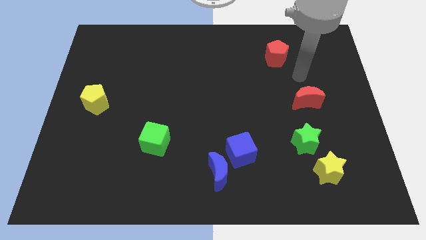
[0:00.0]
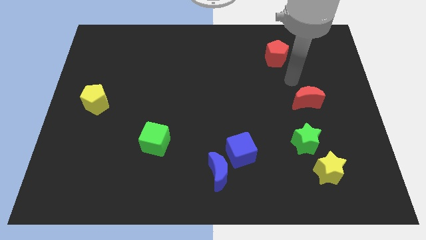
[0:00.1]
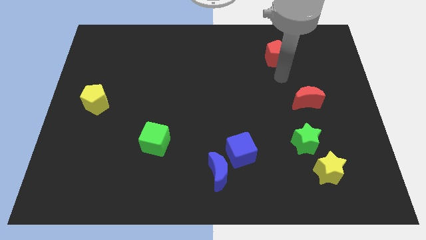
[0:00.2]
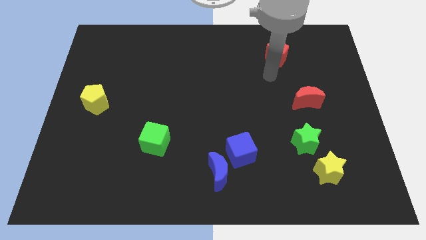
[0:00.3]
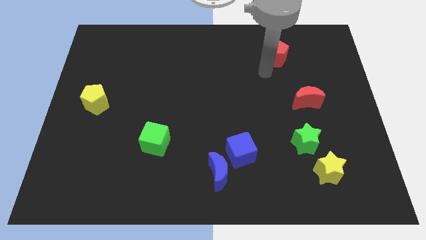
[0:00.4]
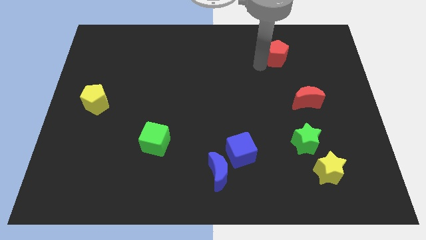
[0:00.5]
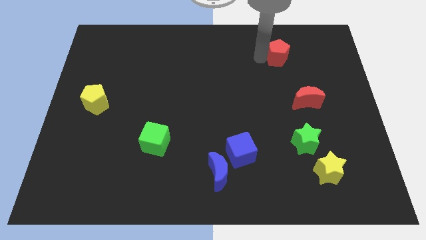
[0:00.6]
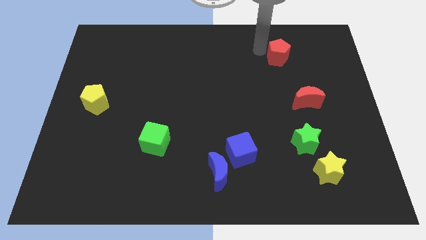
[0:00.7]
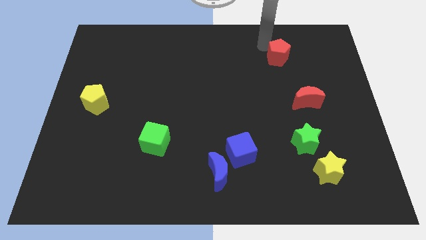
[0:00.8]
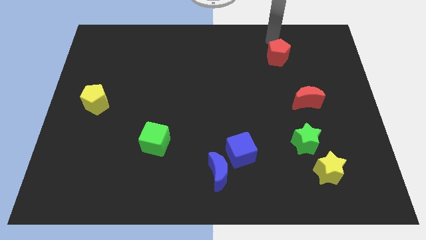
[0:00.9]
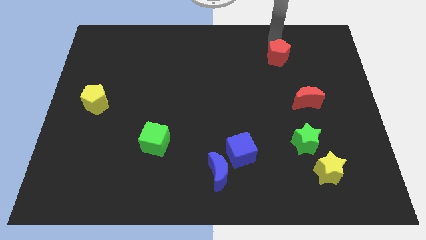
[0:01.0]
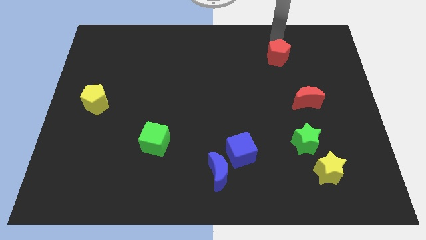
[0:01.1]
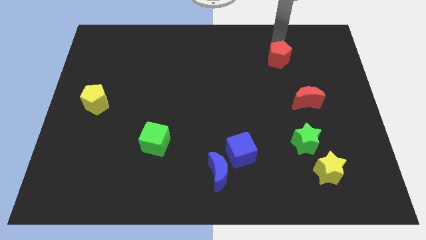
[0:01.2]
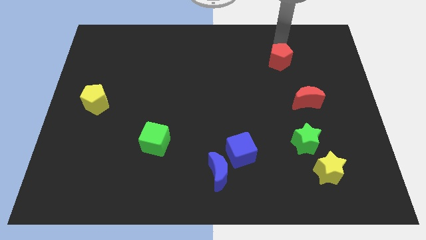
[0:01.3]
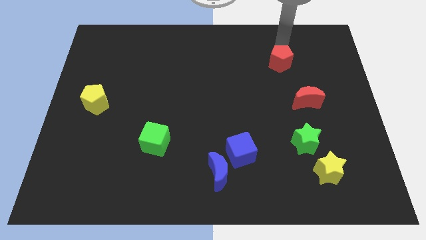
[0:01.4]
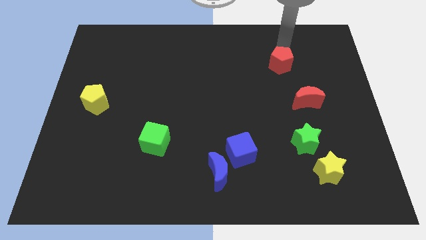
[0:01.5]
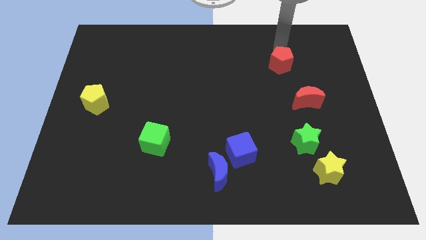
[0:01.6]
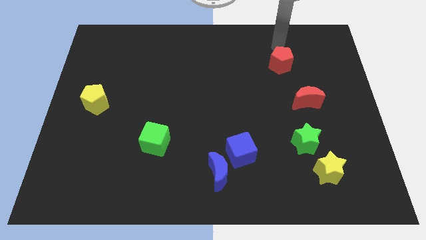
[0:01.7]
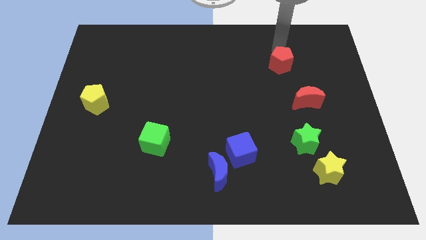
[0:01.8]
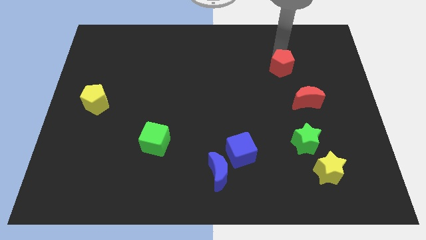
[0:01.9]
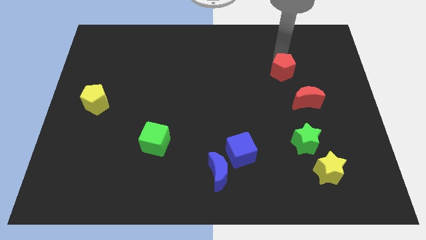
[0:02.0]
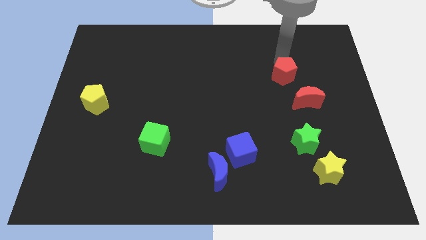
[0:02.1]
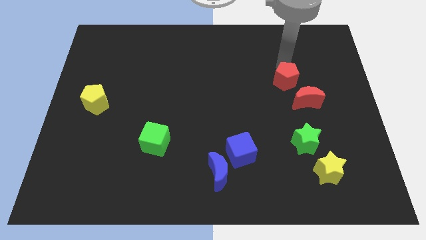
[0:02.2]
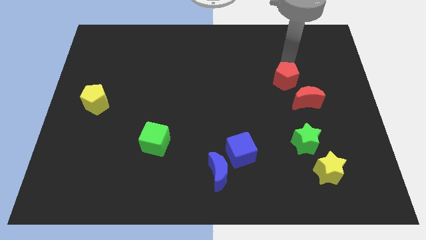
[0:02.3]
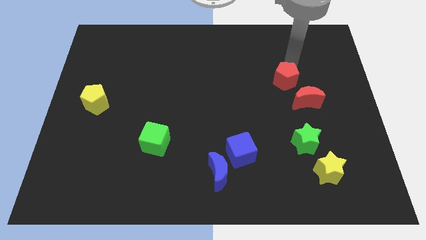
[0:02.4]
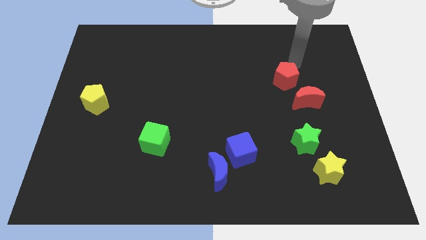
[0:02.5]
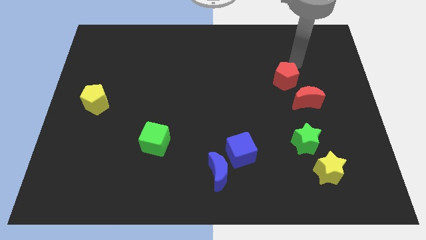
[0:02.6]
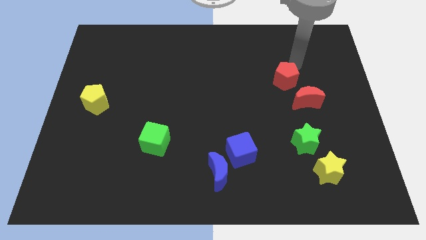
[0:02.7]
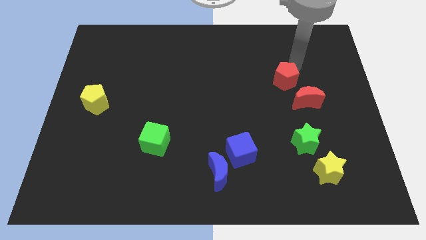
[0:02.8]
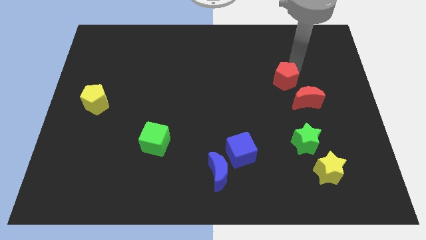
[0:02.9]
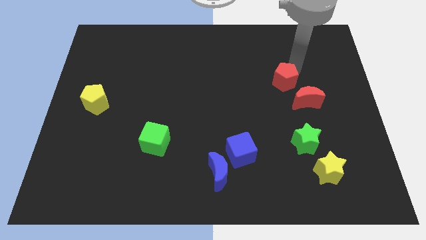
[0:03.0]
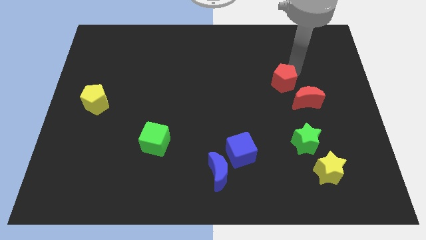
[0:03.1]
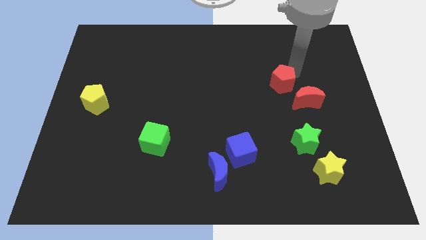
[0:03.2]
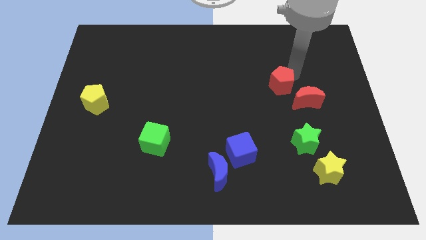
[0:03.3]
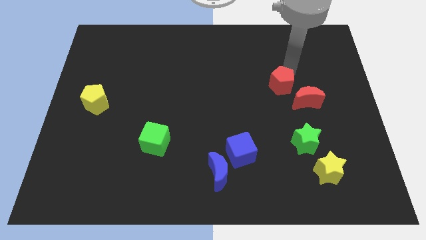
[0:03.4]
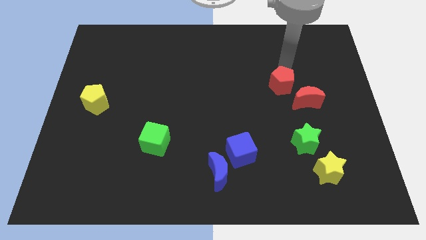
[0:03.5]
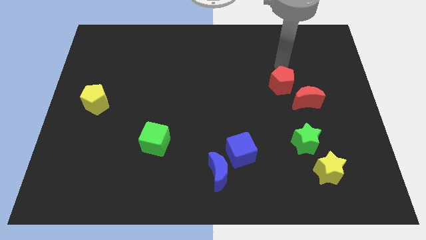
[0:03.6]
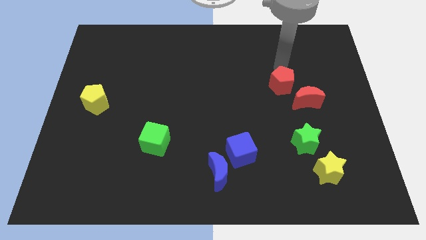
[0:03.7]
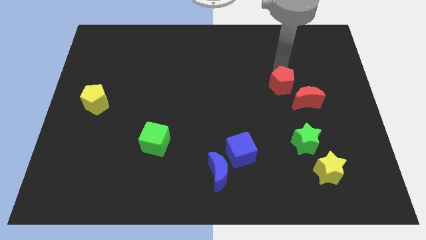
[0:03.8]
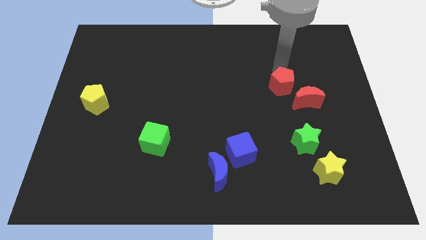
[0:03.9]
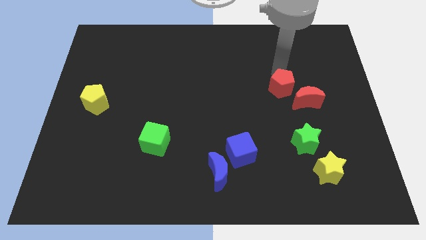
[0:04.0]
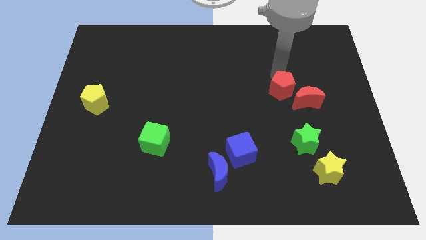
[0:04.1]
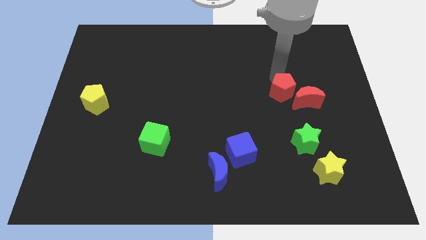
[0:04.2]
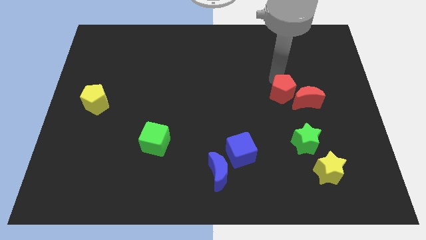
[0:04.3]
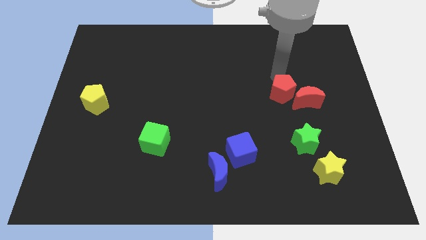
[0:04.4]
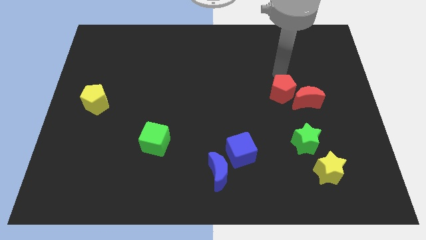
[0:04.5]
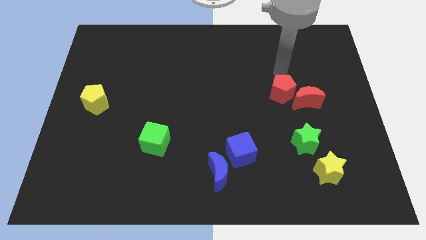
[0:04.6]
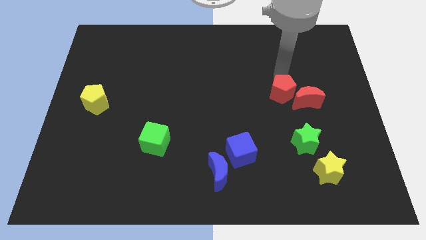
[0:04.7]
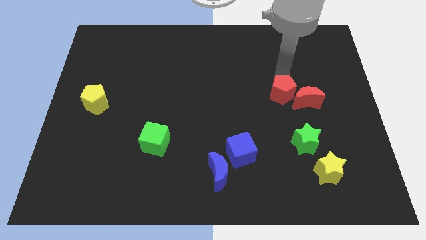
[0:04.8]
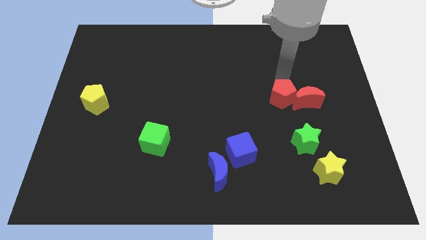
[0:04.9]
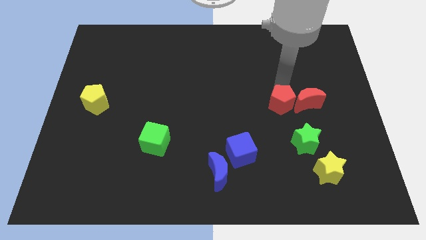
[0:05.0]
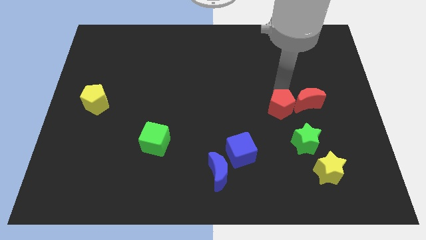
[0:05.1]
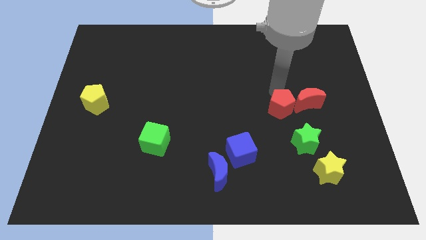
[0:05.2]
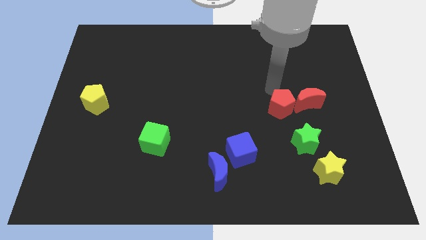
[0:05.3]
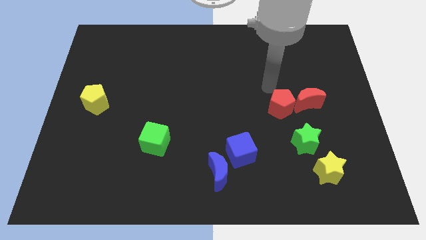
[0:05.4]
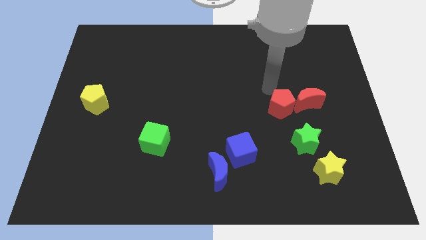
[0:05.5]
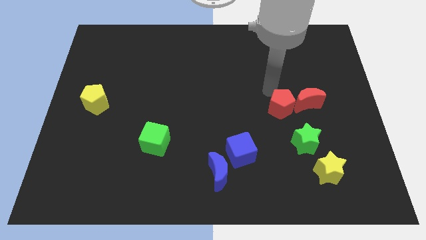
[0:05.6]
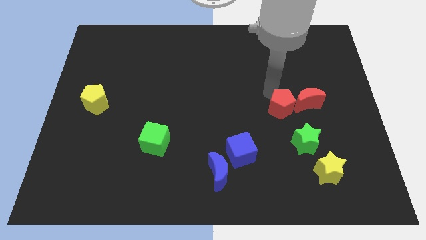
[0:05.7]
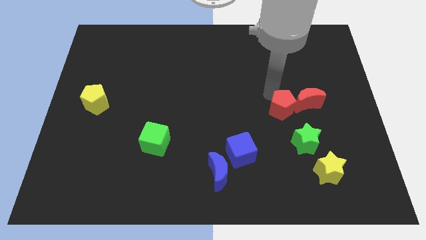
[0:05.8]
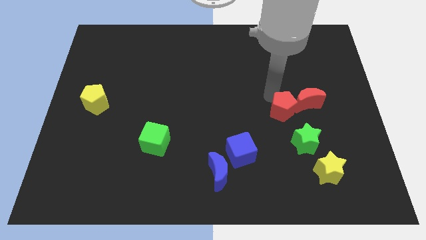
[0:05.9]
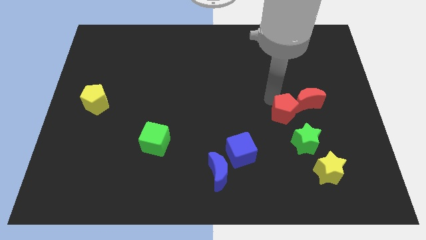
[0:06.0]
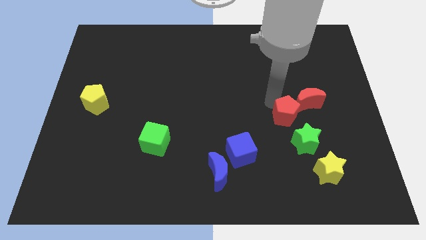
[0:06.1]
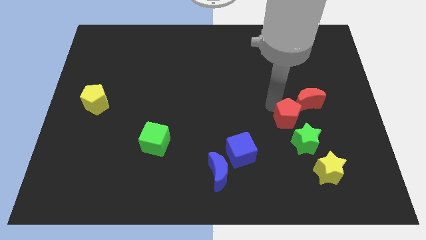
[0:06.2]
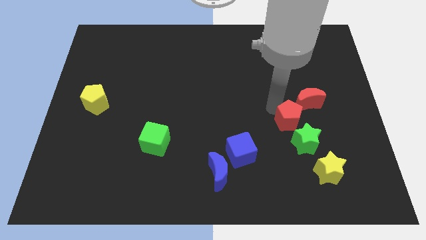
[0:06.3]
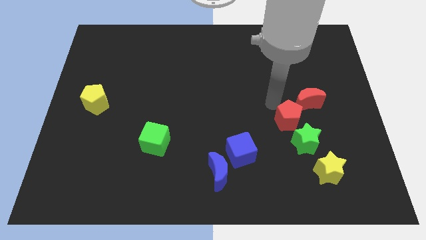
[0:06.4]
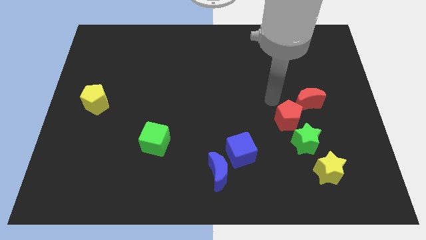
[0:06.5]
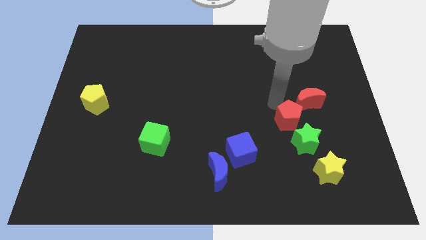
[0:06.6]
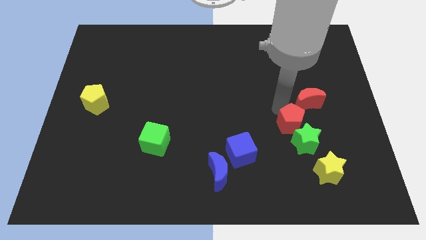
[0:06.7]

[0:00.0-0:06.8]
slide the red pentagon towards the green star

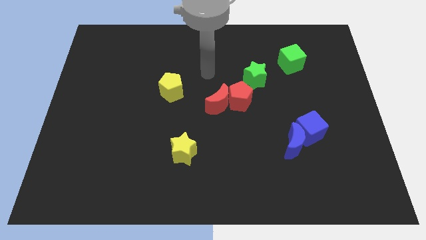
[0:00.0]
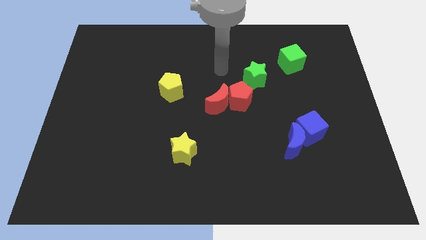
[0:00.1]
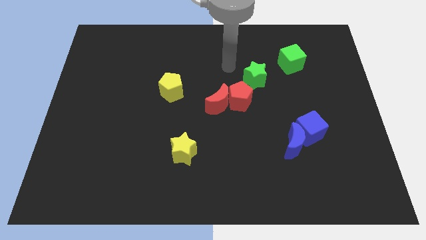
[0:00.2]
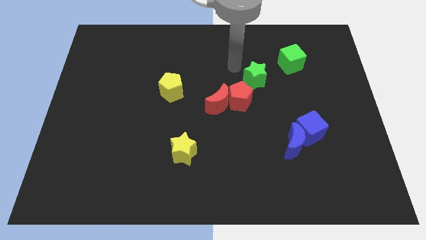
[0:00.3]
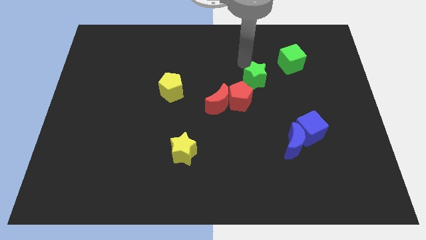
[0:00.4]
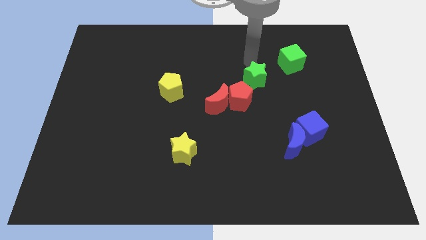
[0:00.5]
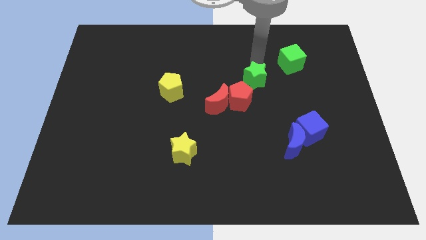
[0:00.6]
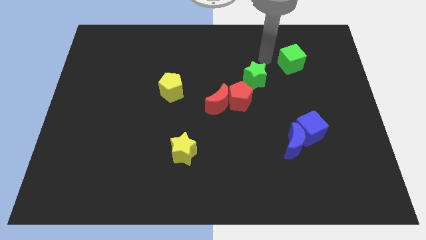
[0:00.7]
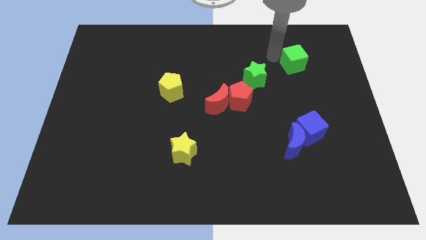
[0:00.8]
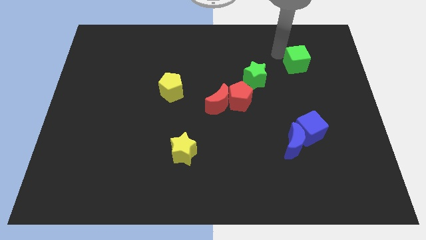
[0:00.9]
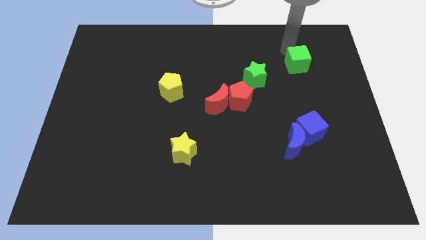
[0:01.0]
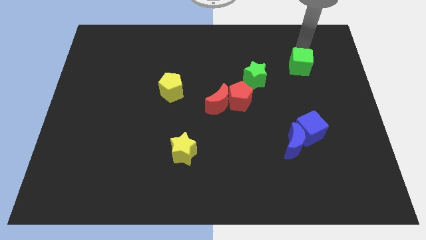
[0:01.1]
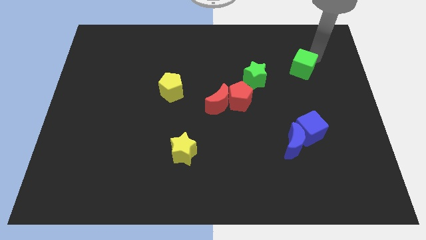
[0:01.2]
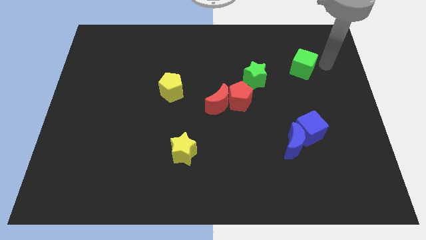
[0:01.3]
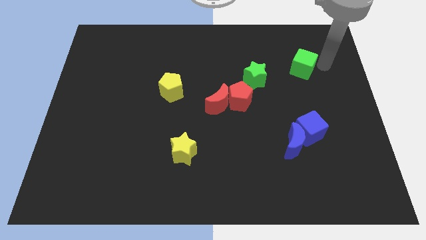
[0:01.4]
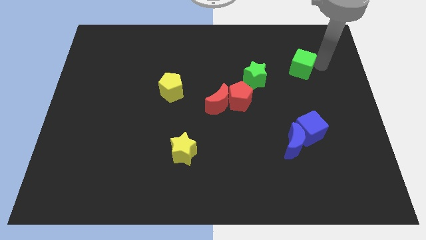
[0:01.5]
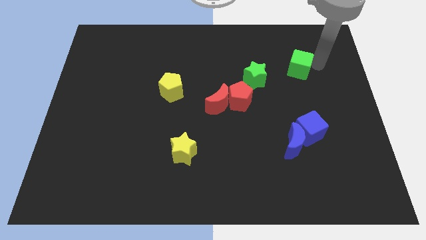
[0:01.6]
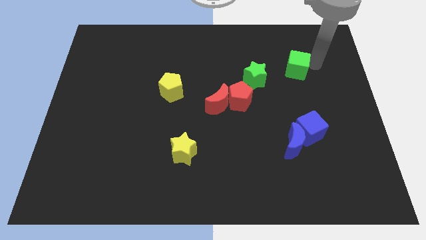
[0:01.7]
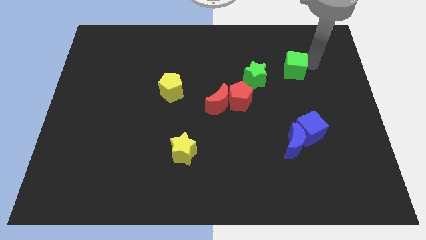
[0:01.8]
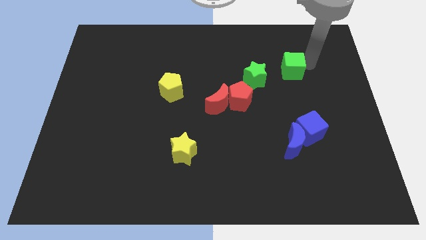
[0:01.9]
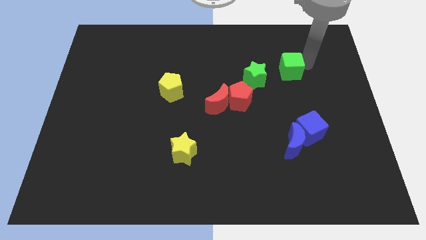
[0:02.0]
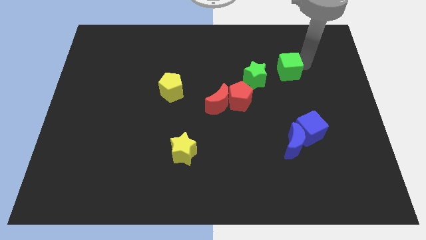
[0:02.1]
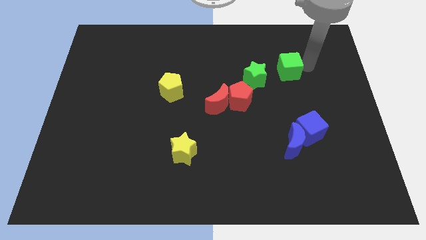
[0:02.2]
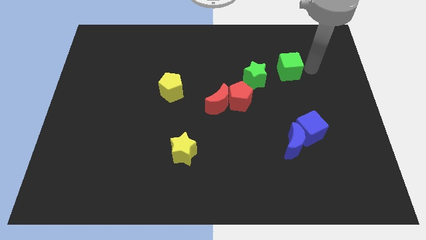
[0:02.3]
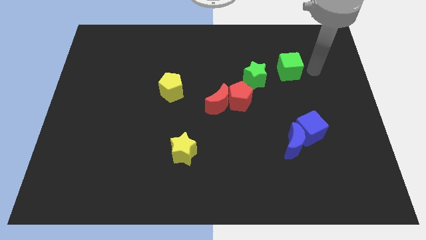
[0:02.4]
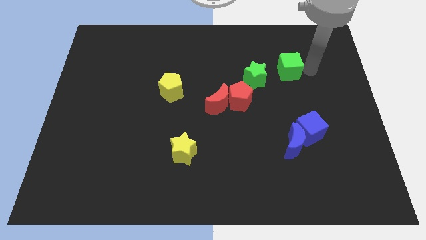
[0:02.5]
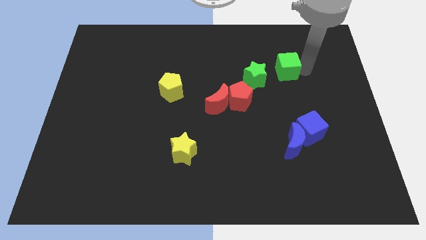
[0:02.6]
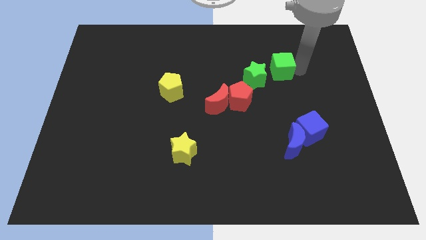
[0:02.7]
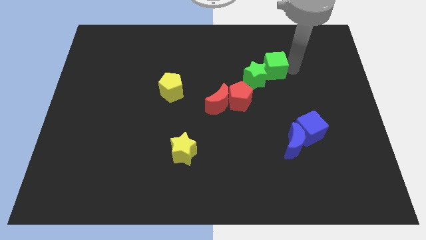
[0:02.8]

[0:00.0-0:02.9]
put the green cube towards the green star
